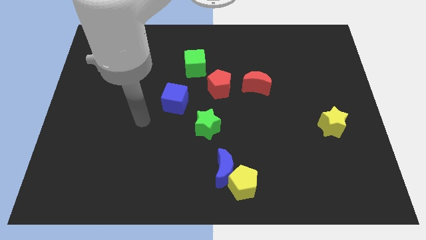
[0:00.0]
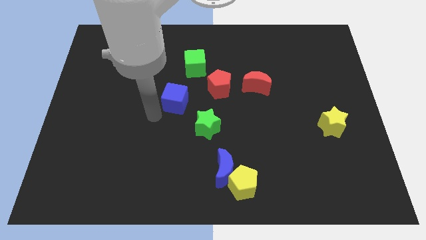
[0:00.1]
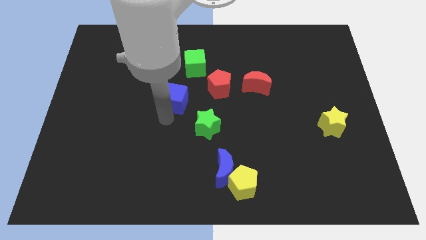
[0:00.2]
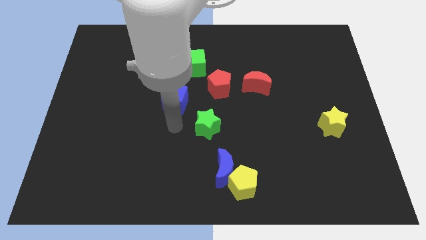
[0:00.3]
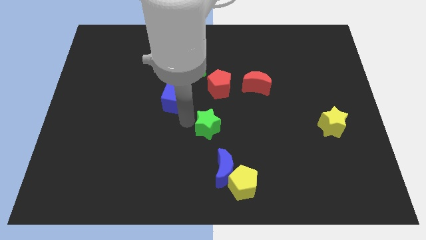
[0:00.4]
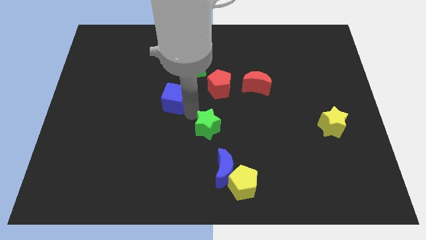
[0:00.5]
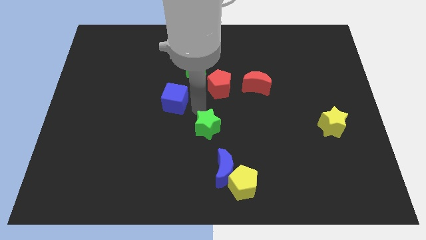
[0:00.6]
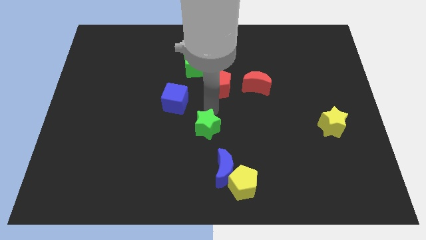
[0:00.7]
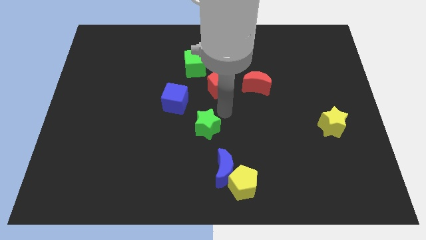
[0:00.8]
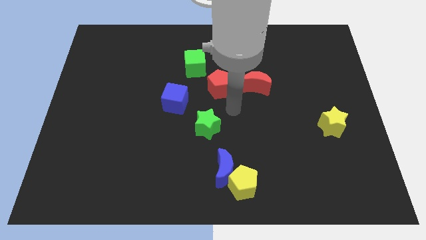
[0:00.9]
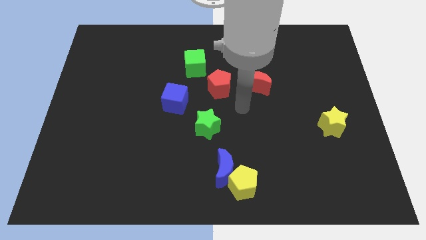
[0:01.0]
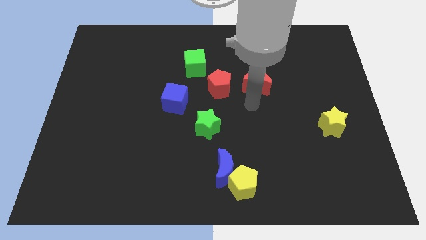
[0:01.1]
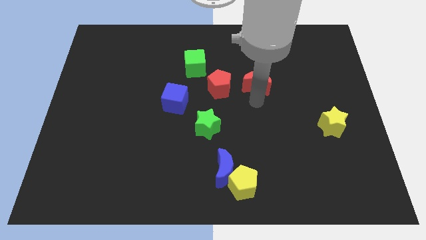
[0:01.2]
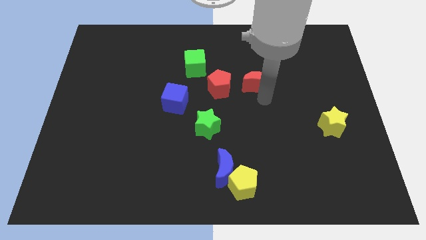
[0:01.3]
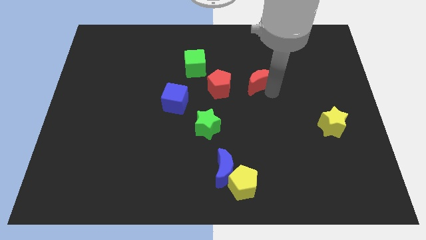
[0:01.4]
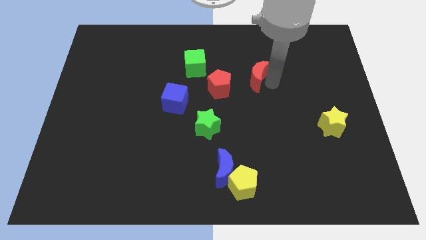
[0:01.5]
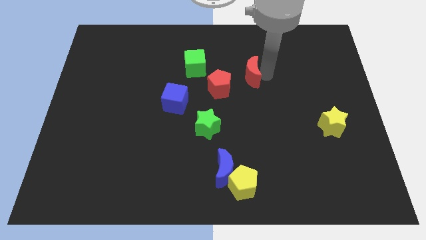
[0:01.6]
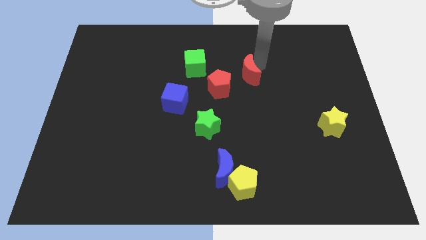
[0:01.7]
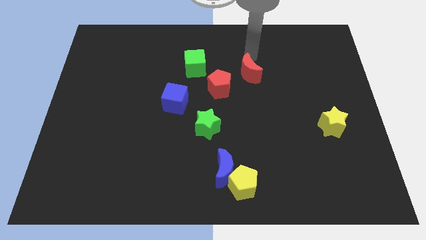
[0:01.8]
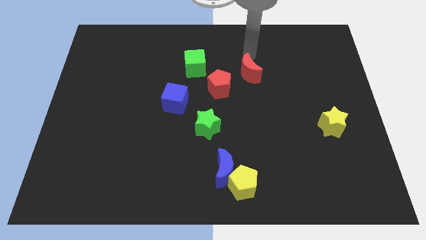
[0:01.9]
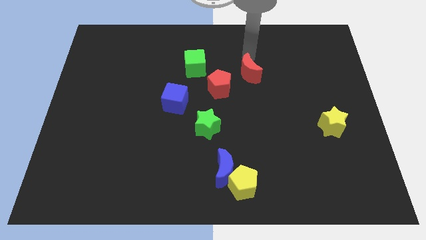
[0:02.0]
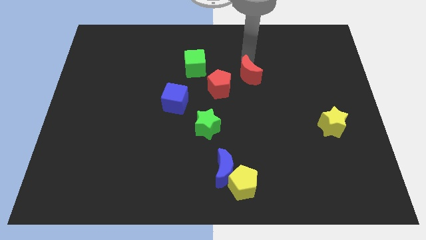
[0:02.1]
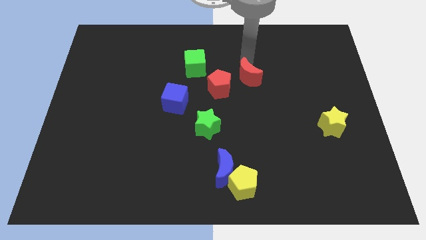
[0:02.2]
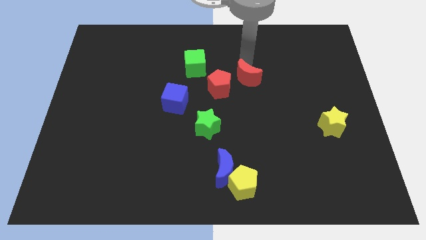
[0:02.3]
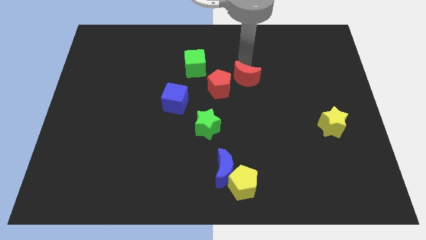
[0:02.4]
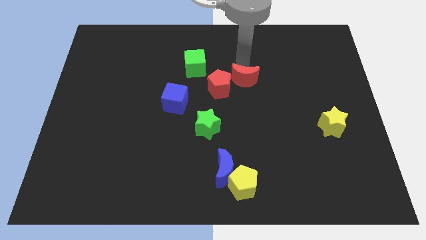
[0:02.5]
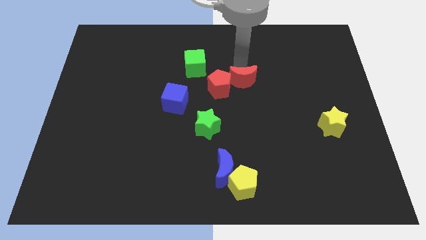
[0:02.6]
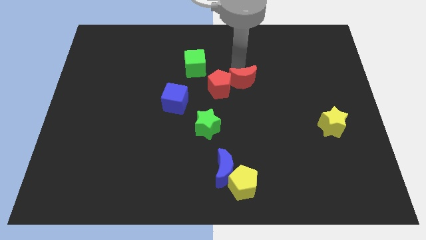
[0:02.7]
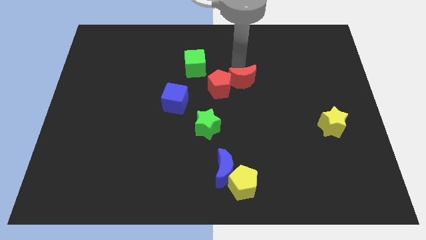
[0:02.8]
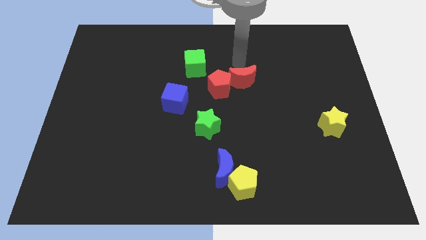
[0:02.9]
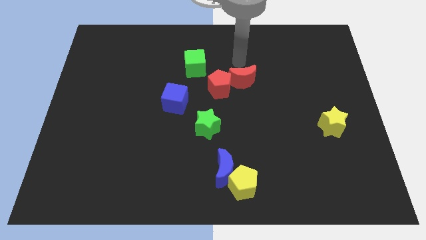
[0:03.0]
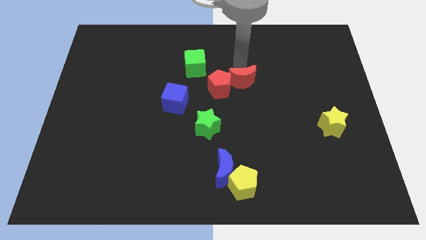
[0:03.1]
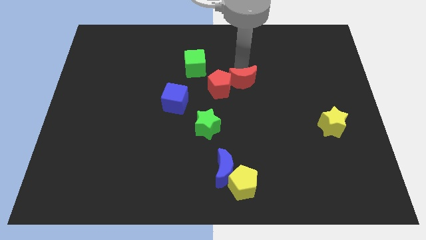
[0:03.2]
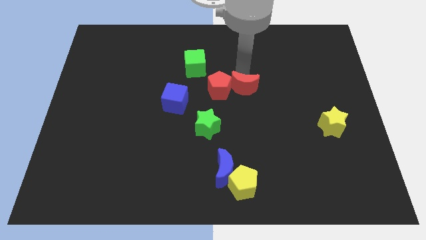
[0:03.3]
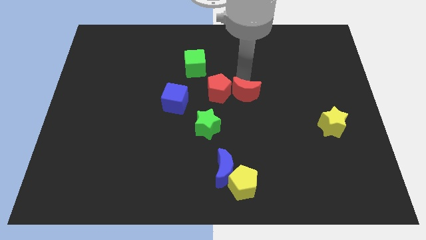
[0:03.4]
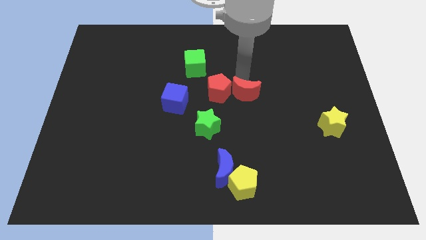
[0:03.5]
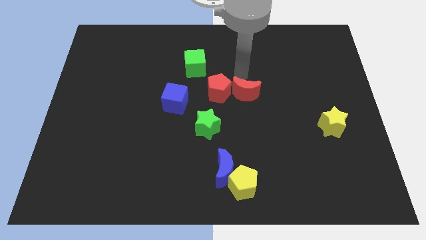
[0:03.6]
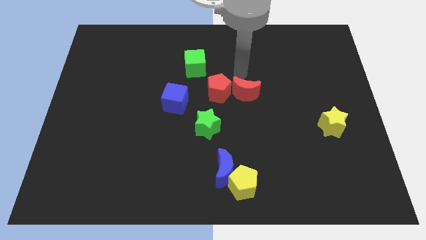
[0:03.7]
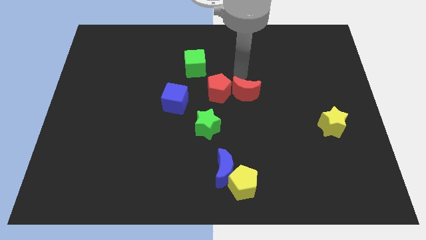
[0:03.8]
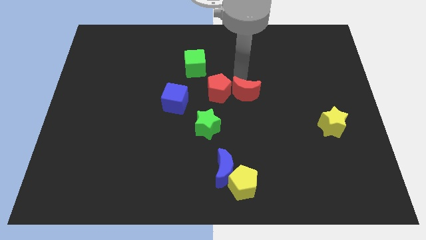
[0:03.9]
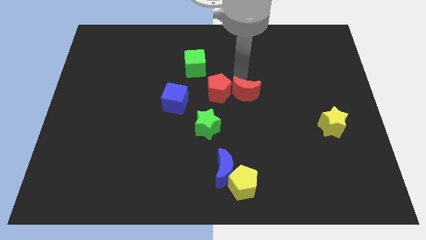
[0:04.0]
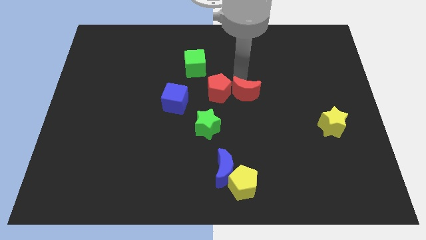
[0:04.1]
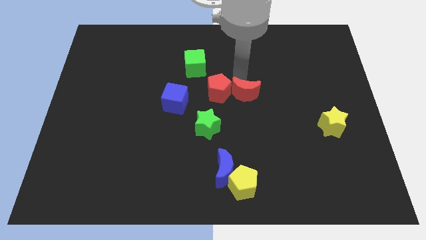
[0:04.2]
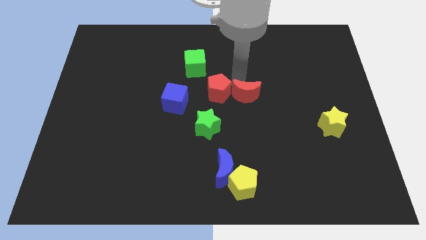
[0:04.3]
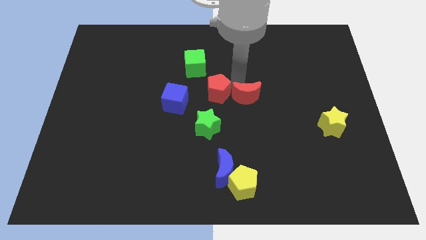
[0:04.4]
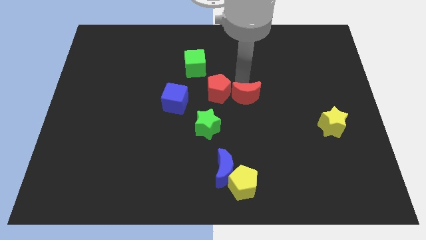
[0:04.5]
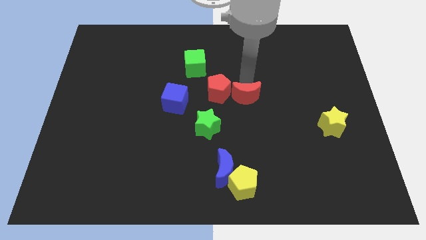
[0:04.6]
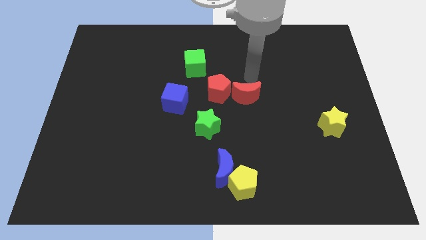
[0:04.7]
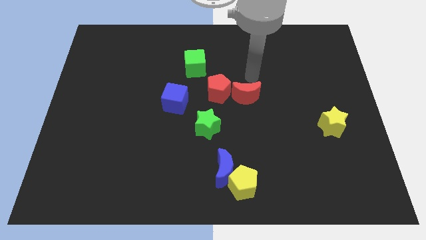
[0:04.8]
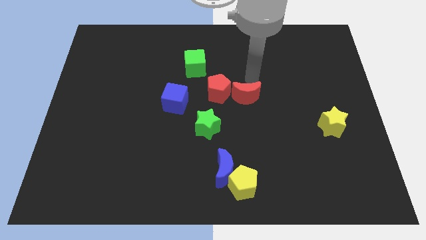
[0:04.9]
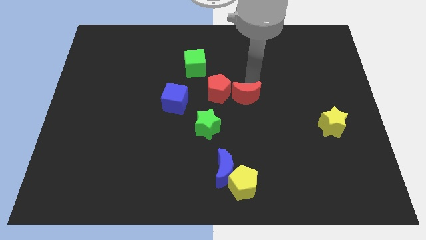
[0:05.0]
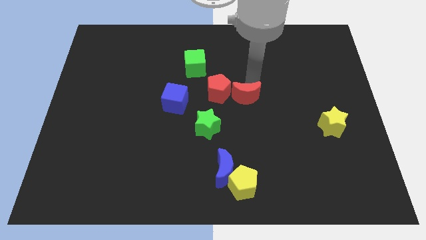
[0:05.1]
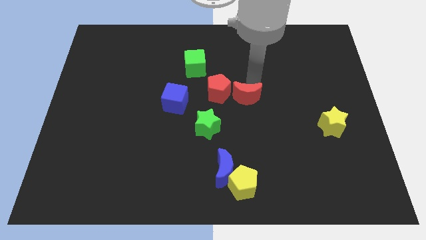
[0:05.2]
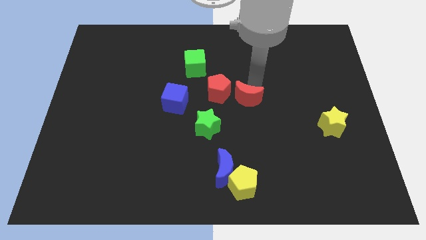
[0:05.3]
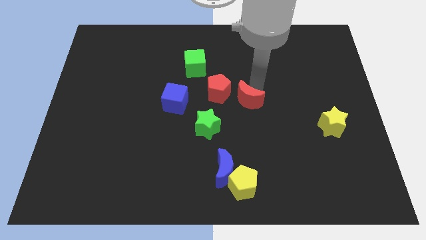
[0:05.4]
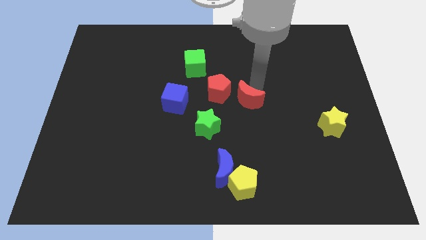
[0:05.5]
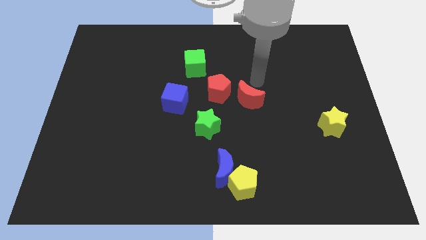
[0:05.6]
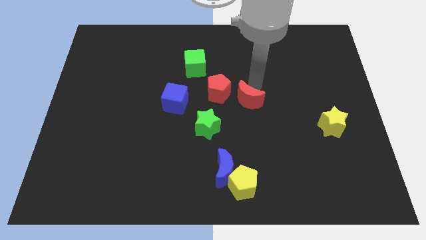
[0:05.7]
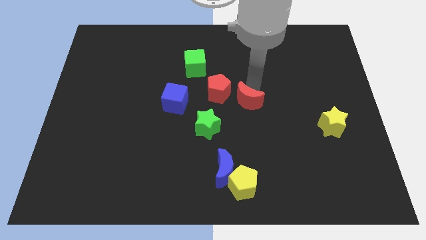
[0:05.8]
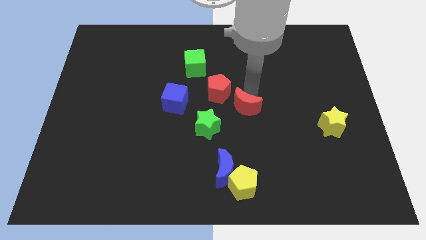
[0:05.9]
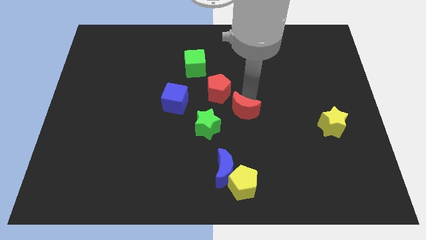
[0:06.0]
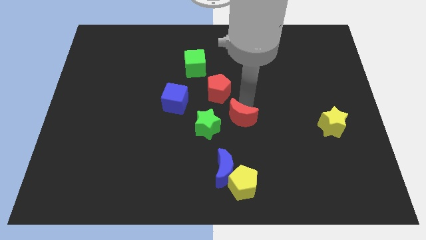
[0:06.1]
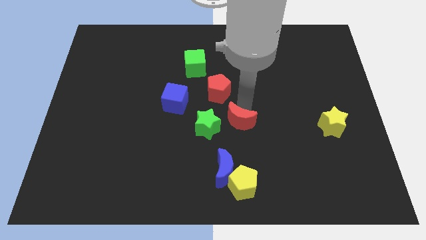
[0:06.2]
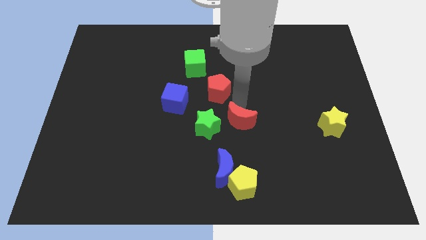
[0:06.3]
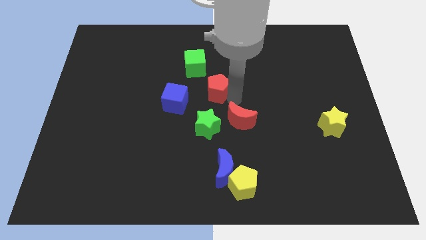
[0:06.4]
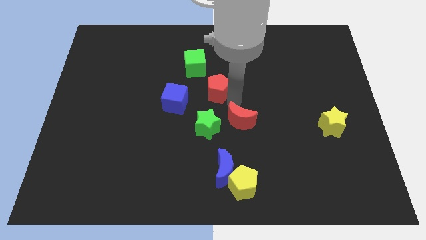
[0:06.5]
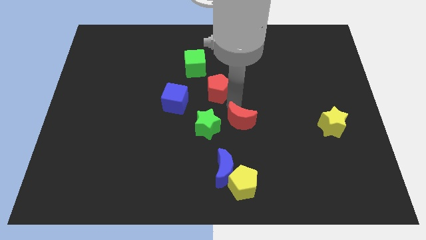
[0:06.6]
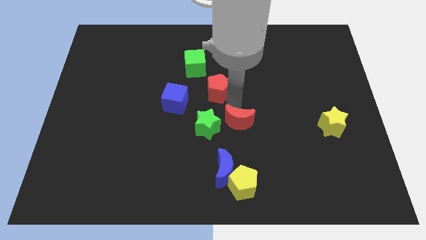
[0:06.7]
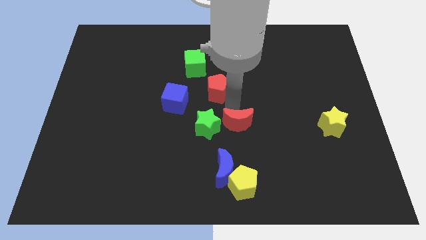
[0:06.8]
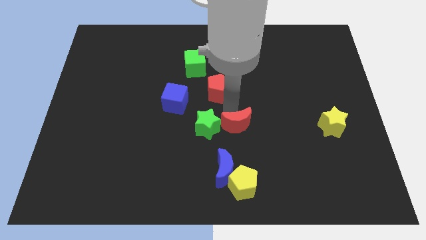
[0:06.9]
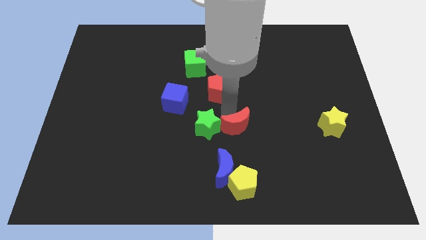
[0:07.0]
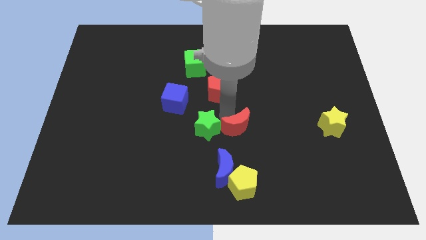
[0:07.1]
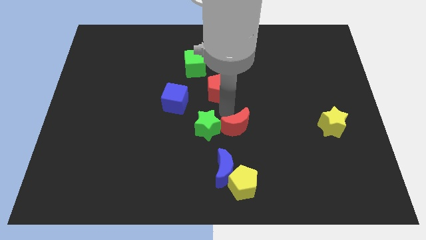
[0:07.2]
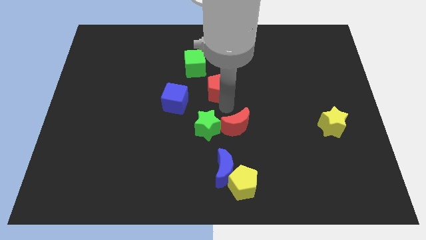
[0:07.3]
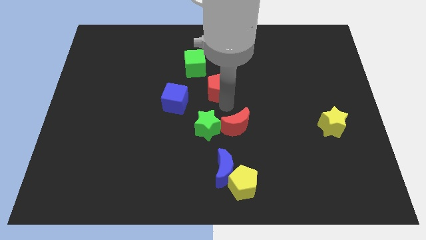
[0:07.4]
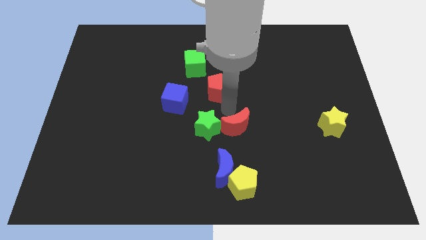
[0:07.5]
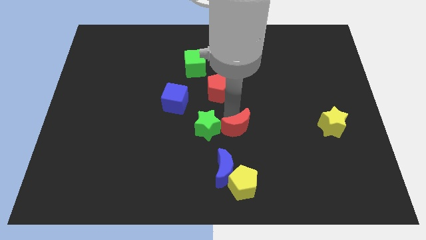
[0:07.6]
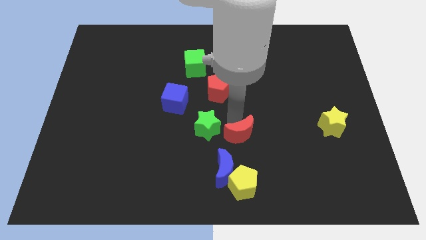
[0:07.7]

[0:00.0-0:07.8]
slide the red moon diagonally up and to the right of the blue moon
